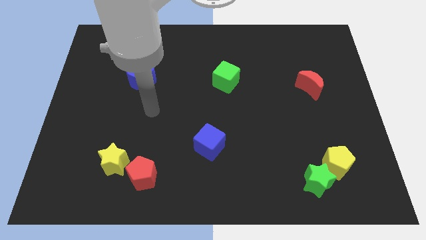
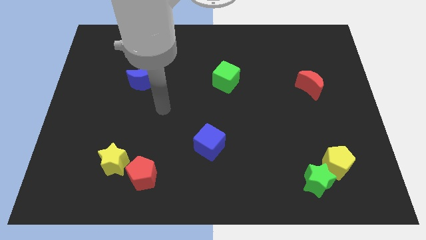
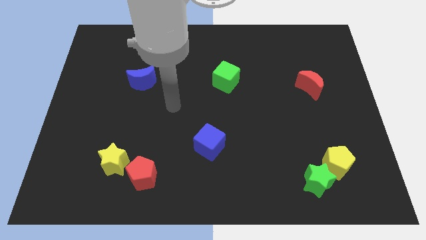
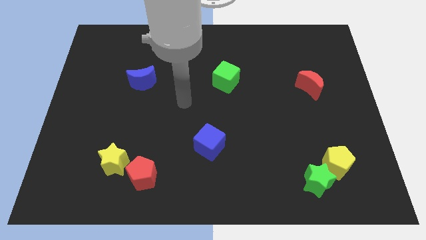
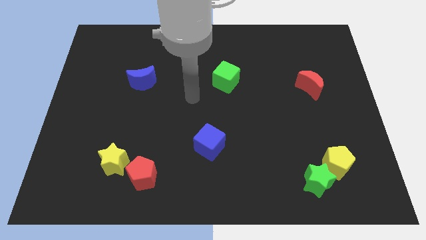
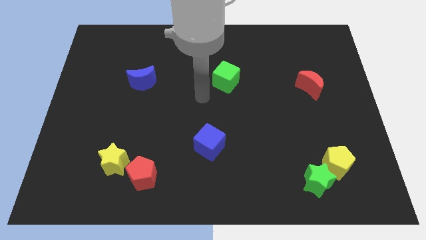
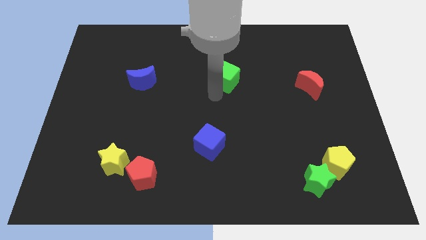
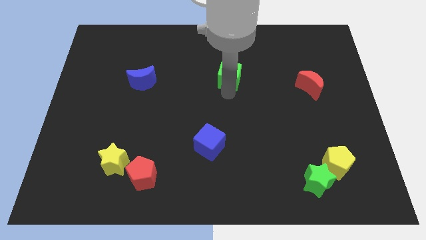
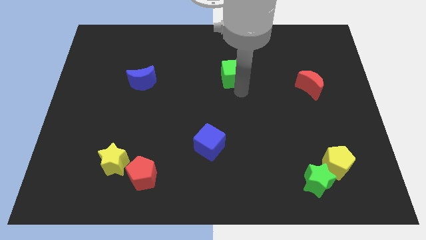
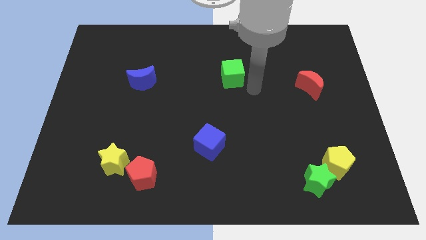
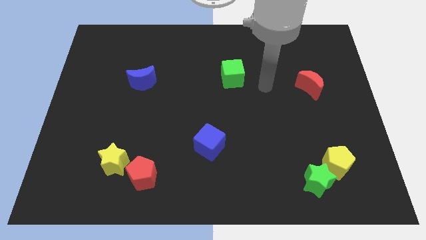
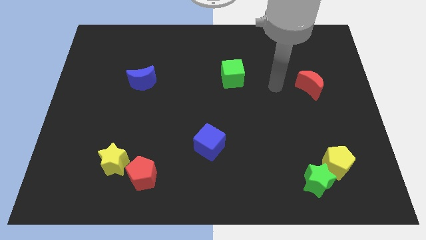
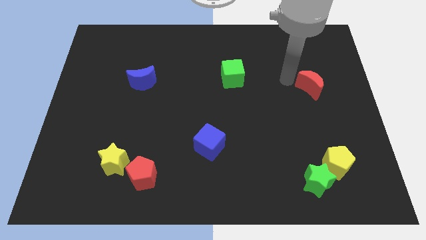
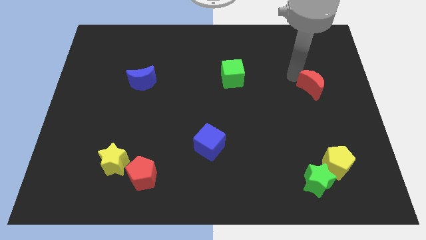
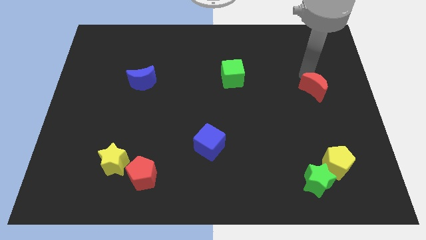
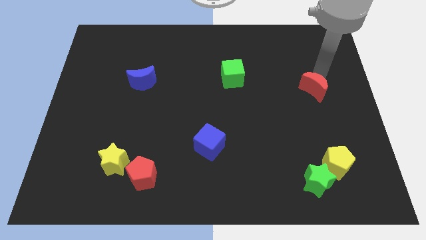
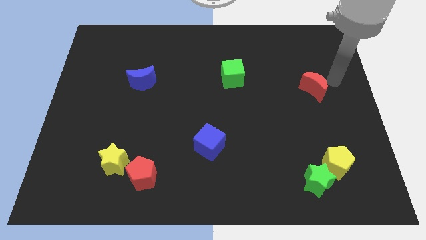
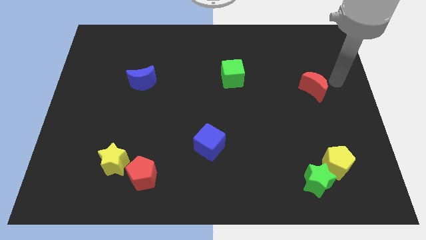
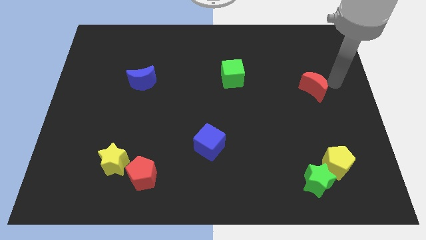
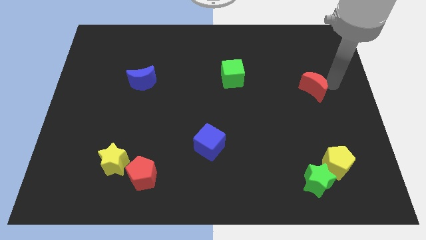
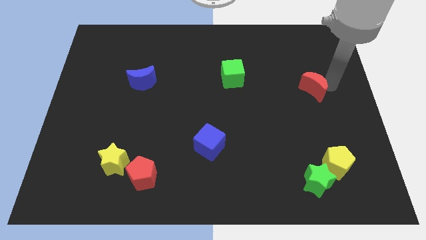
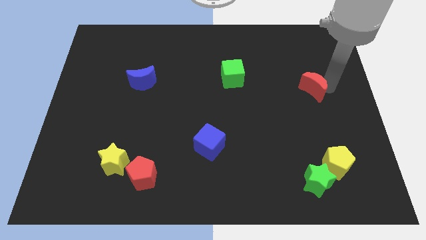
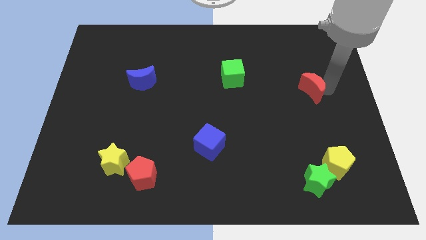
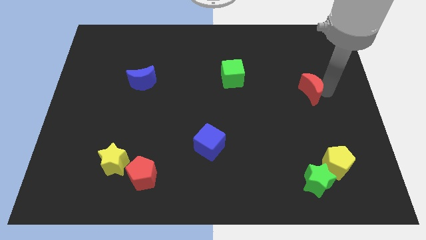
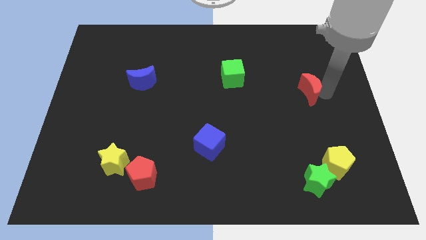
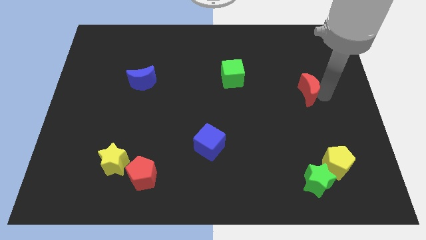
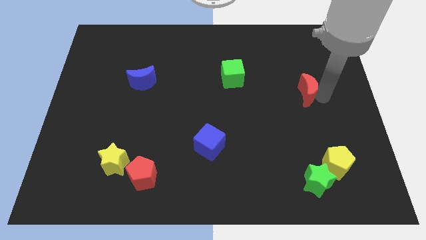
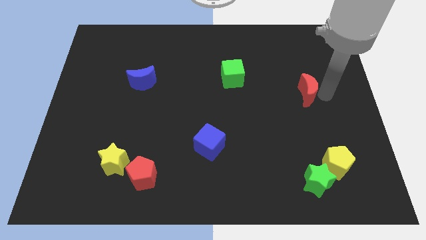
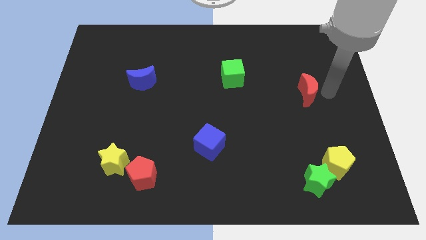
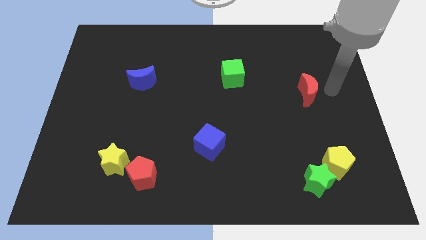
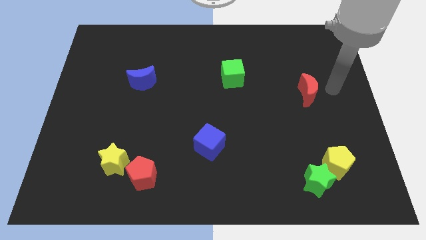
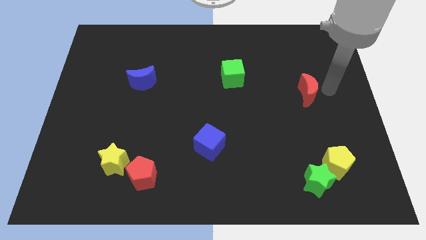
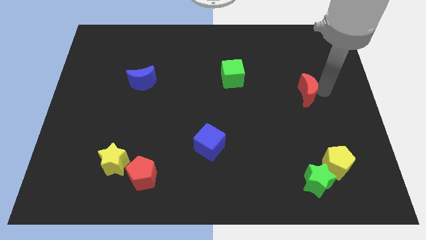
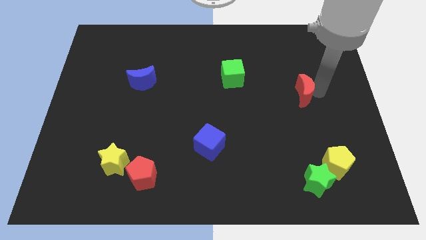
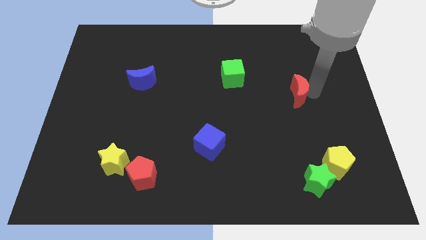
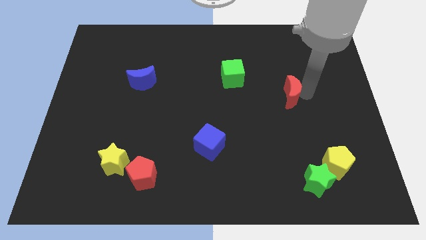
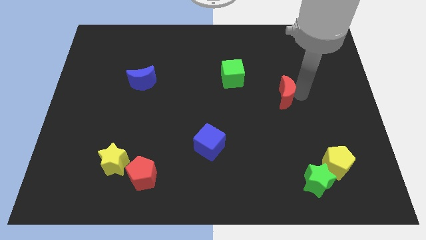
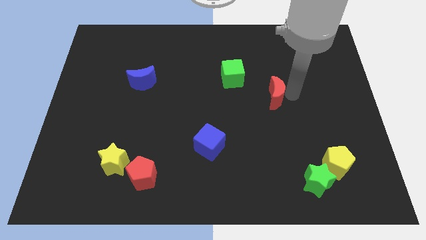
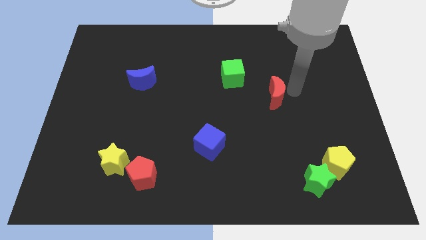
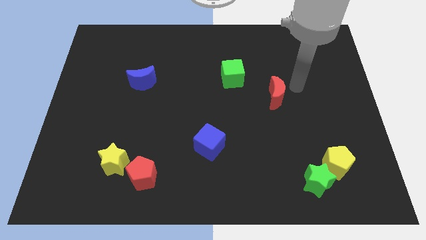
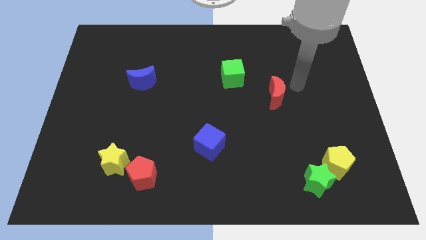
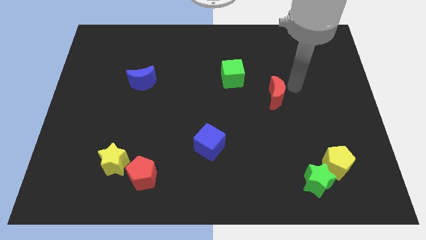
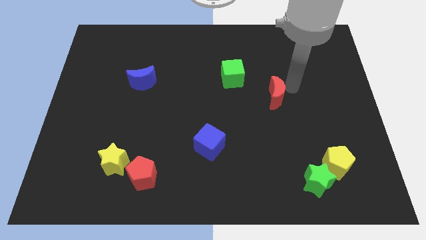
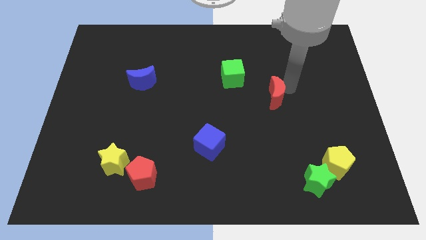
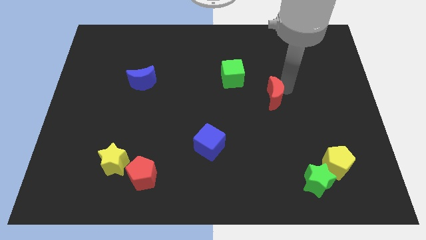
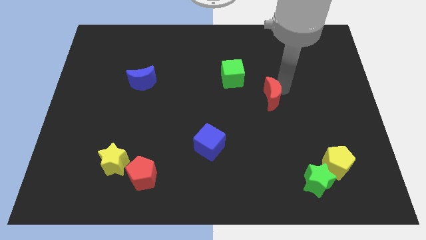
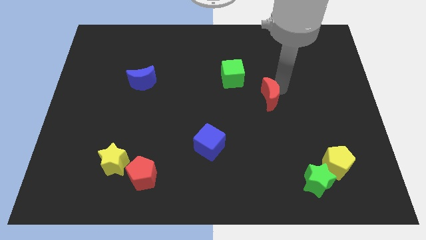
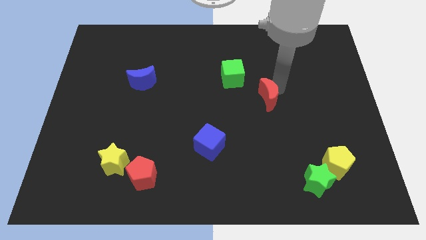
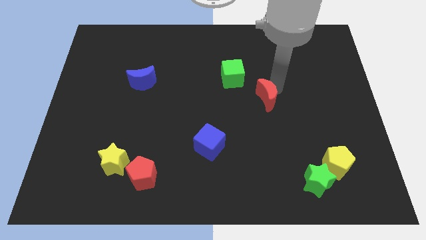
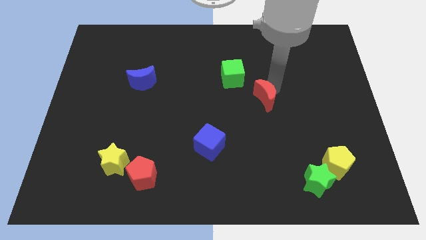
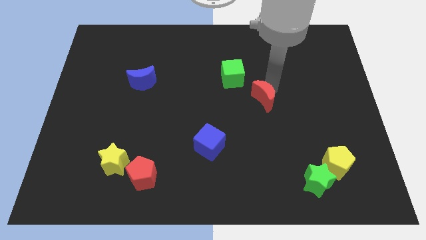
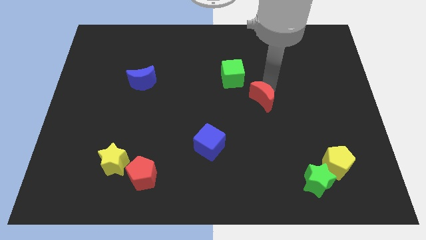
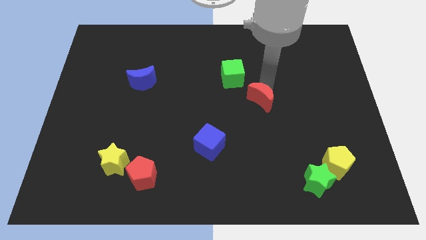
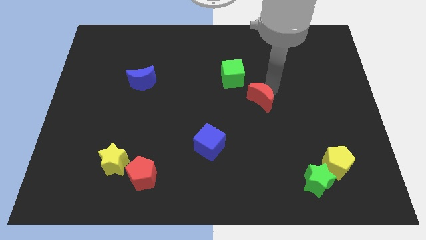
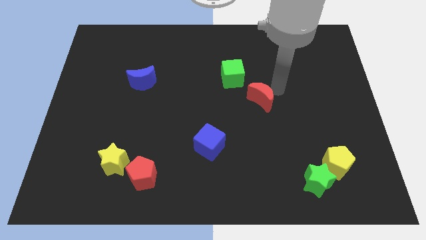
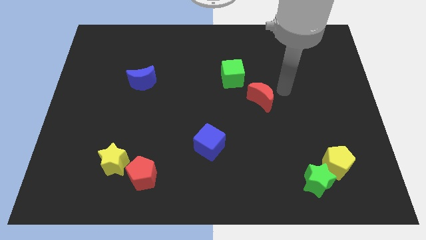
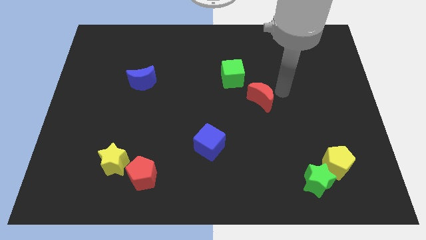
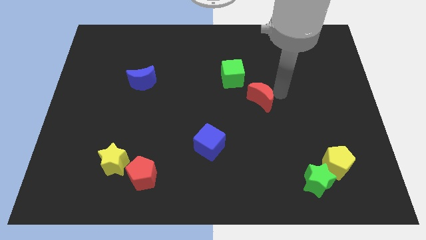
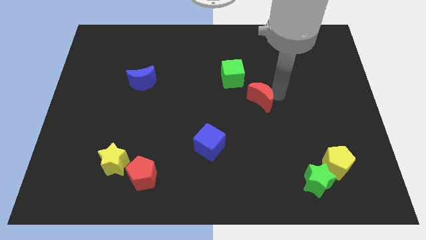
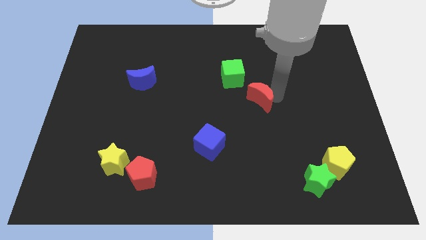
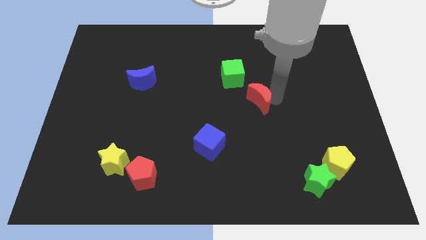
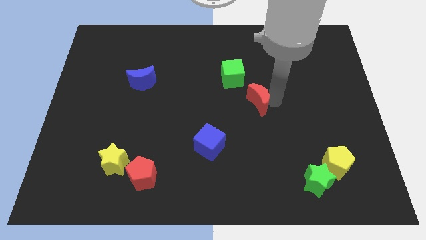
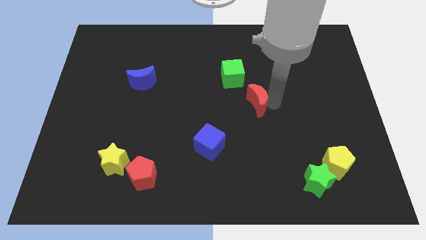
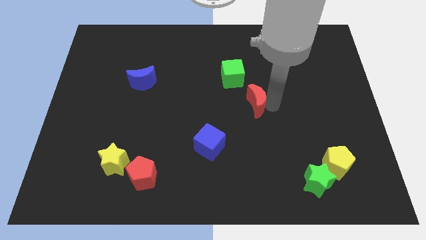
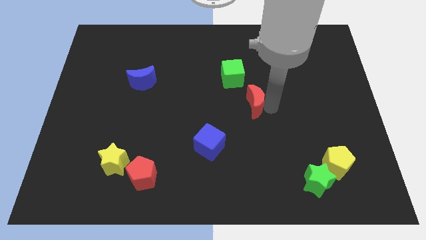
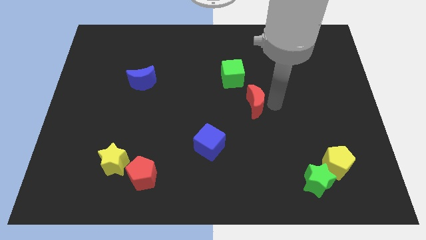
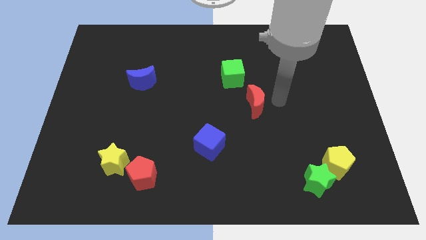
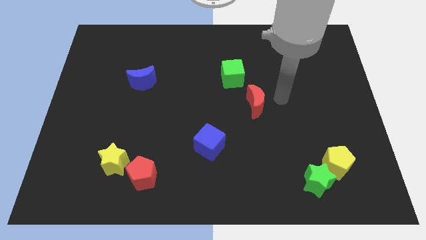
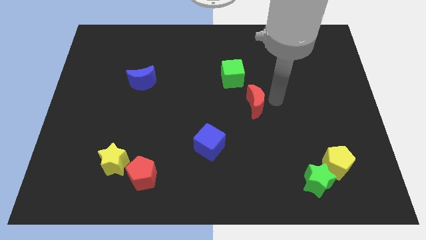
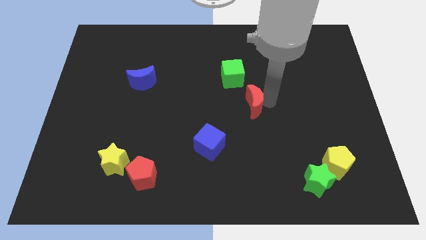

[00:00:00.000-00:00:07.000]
slide the red moon to the bottom of the green cube
